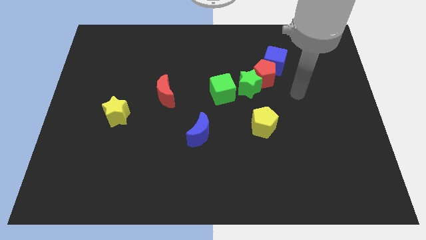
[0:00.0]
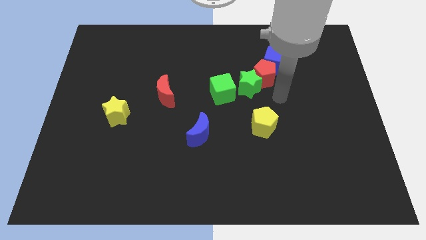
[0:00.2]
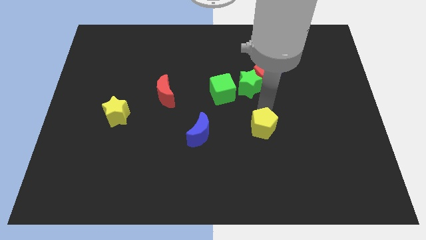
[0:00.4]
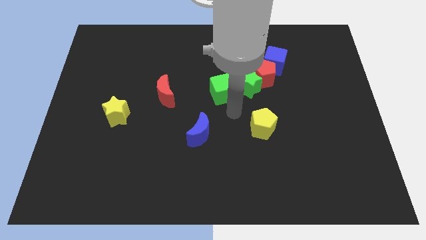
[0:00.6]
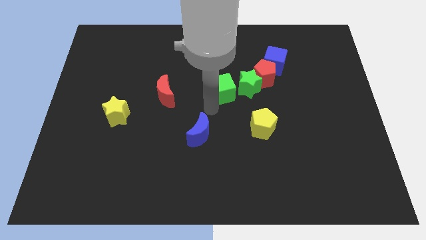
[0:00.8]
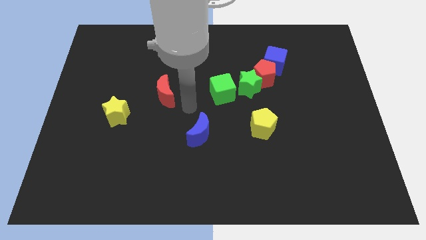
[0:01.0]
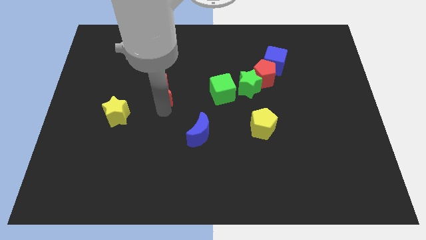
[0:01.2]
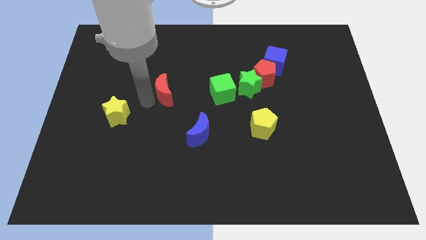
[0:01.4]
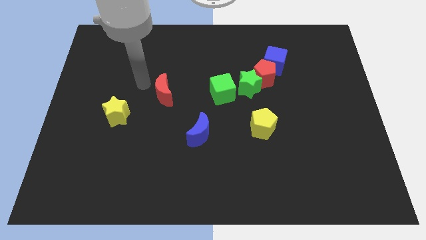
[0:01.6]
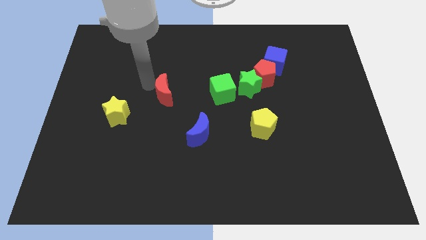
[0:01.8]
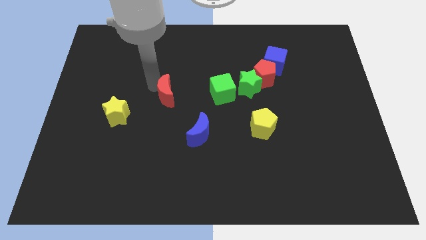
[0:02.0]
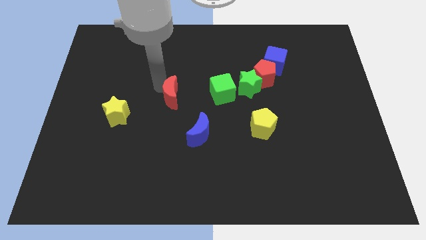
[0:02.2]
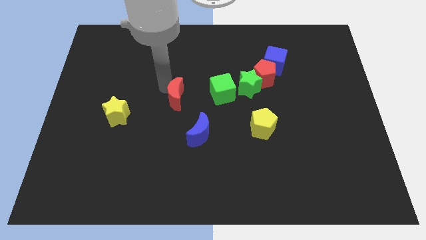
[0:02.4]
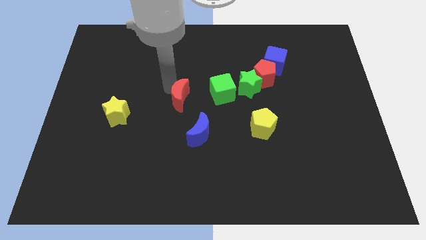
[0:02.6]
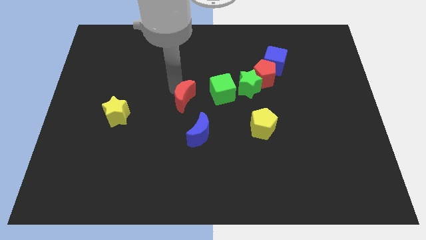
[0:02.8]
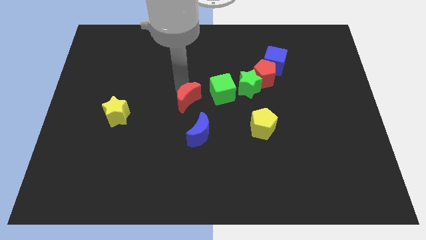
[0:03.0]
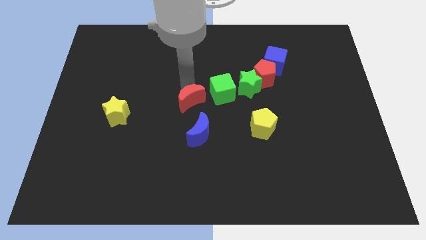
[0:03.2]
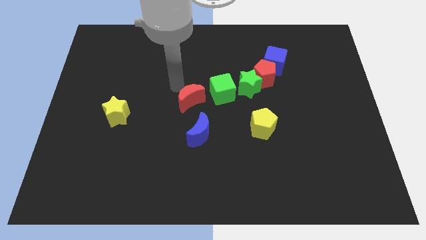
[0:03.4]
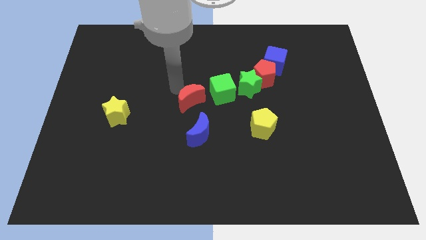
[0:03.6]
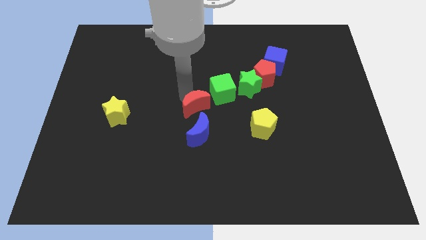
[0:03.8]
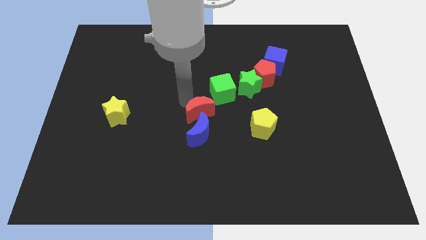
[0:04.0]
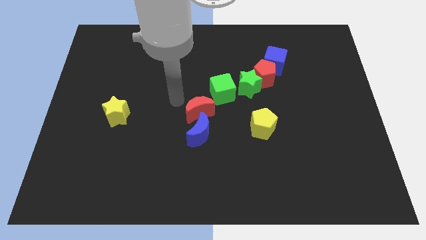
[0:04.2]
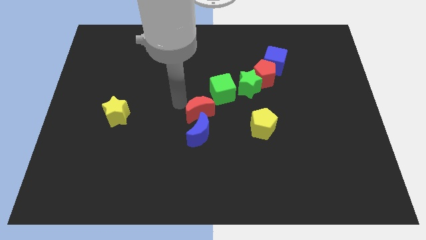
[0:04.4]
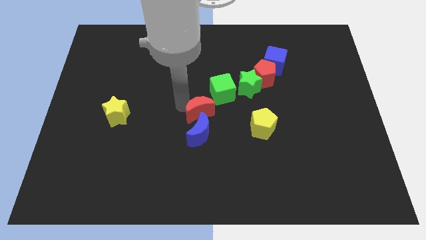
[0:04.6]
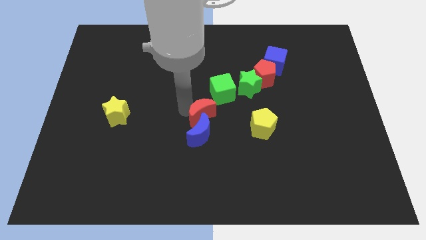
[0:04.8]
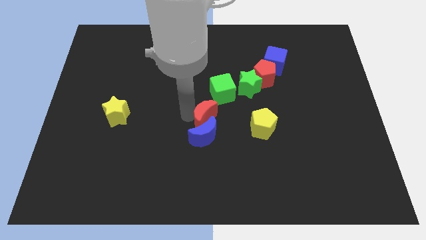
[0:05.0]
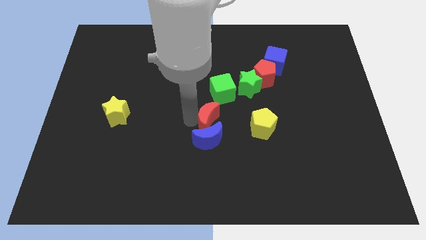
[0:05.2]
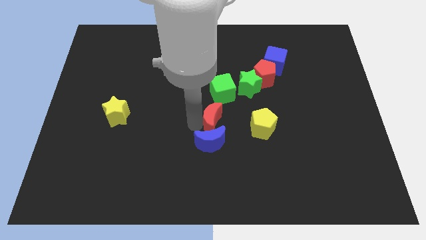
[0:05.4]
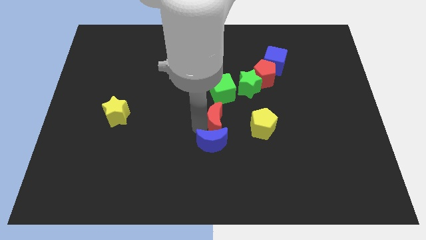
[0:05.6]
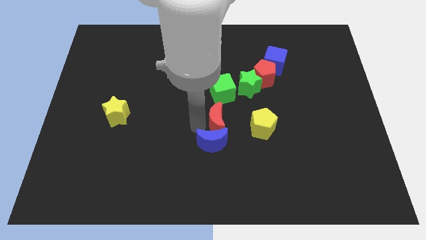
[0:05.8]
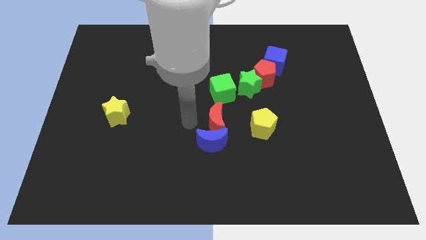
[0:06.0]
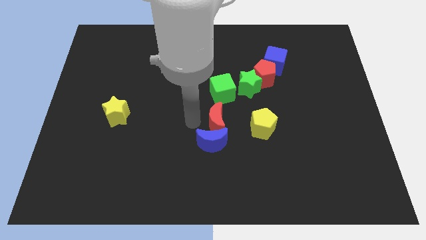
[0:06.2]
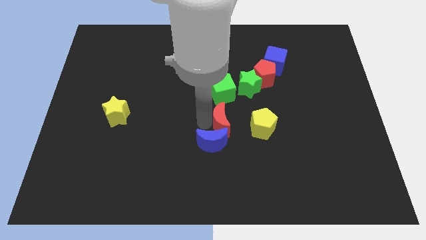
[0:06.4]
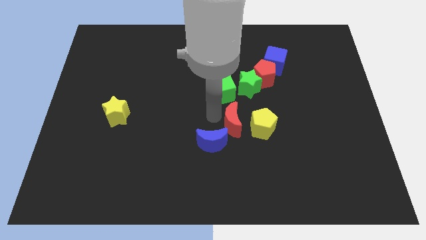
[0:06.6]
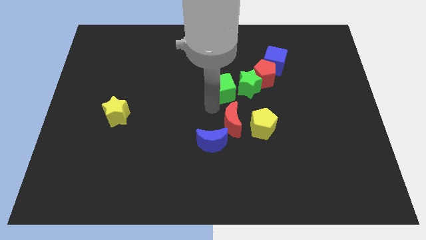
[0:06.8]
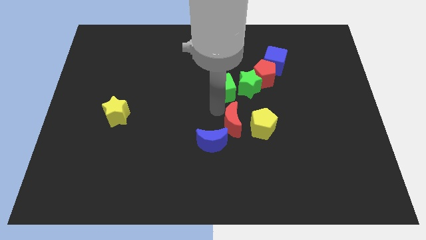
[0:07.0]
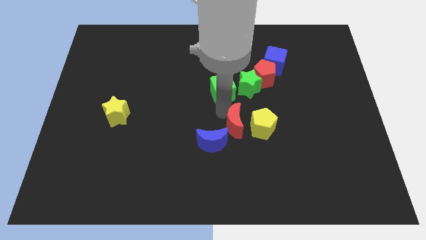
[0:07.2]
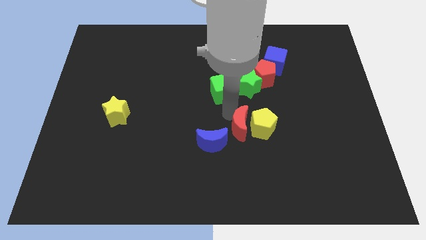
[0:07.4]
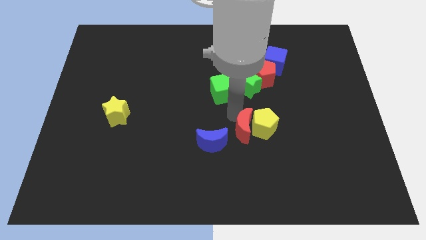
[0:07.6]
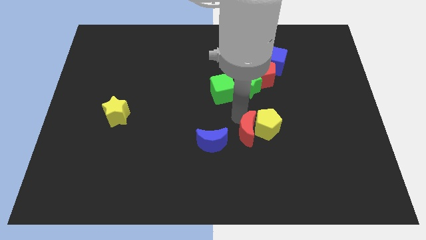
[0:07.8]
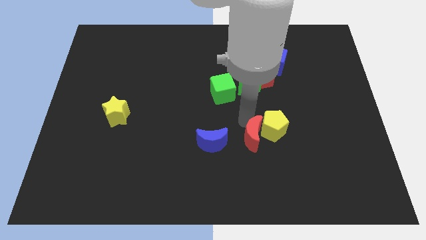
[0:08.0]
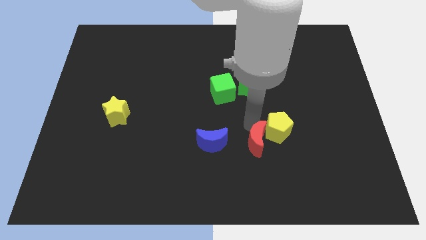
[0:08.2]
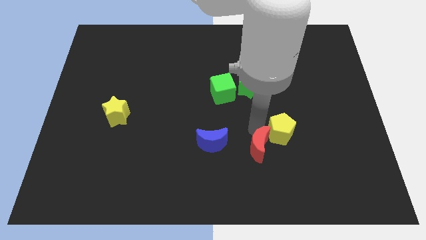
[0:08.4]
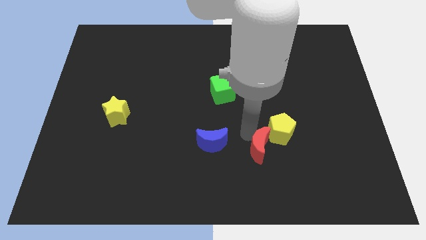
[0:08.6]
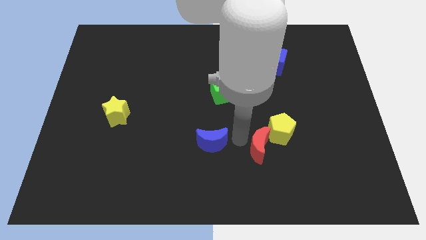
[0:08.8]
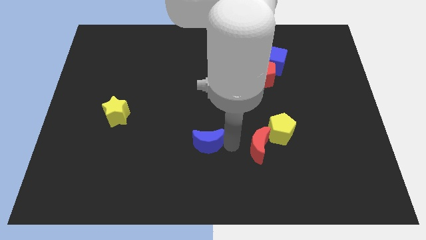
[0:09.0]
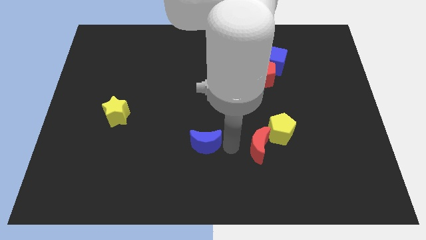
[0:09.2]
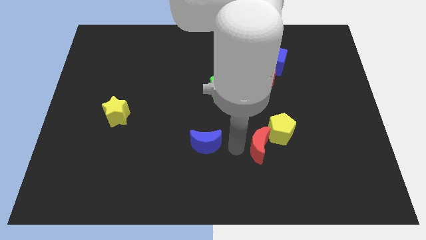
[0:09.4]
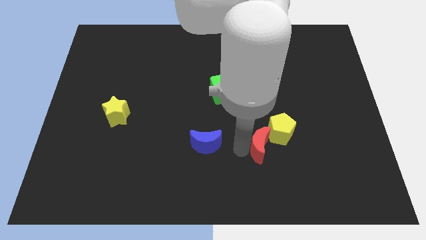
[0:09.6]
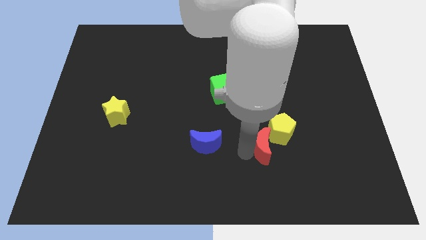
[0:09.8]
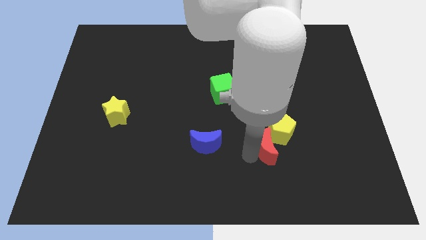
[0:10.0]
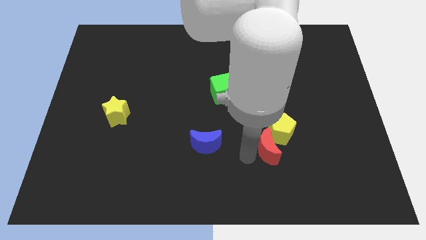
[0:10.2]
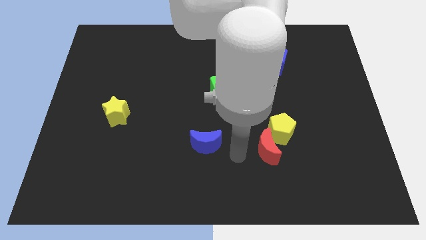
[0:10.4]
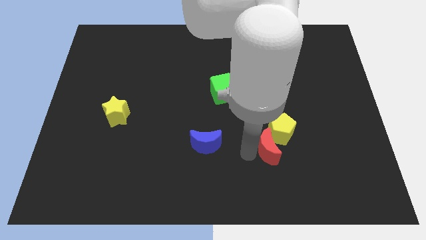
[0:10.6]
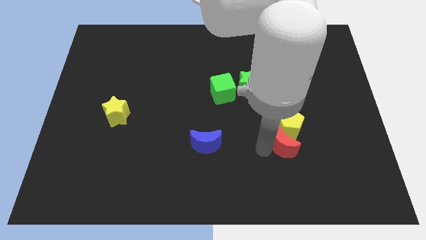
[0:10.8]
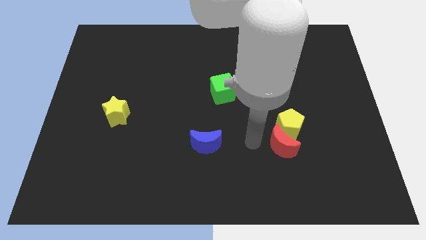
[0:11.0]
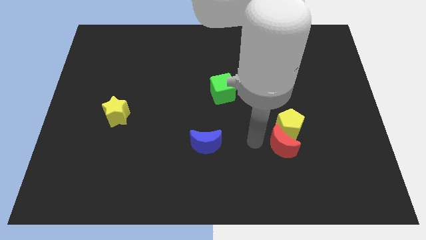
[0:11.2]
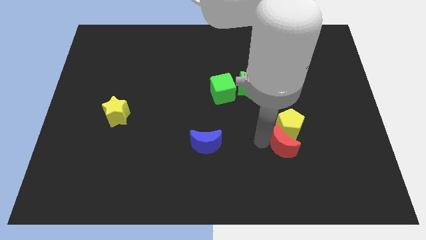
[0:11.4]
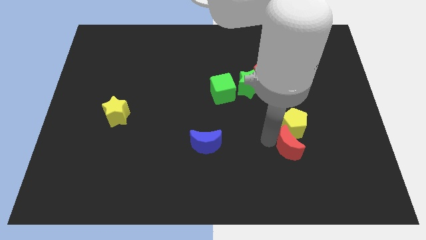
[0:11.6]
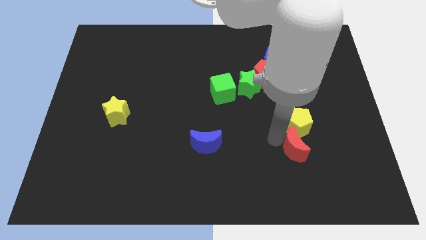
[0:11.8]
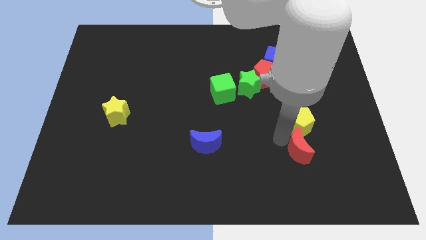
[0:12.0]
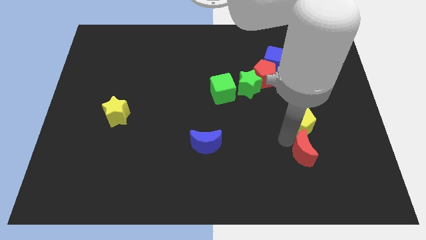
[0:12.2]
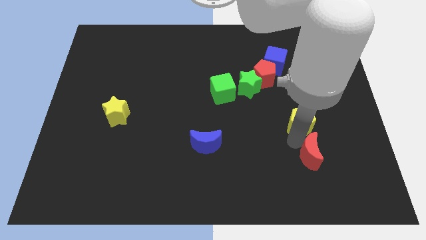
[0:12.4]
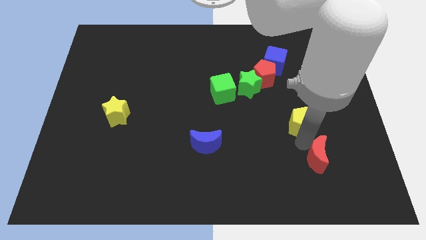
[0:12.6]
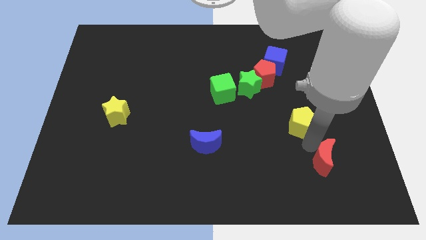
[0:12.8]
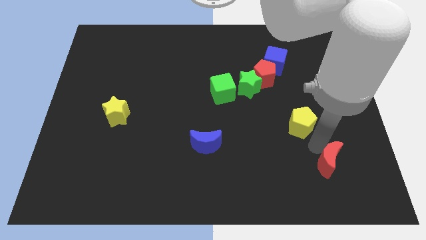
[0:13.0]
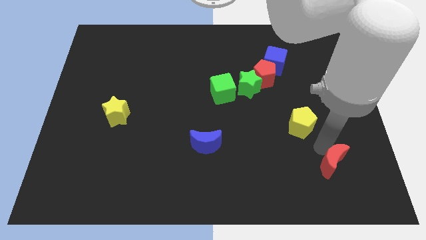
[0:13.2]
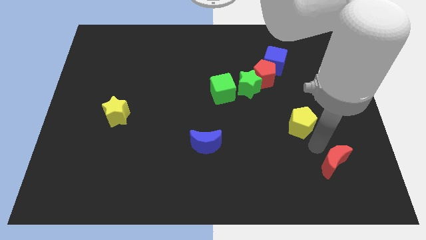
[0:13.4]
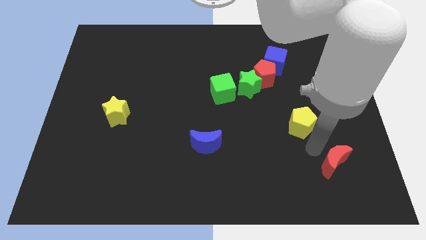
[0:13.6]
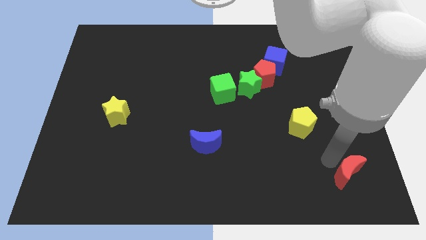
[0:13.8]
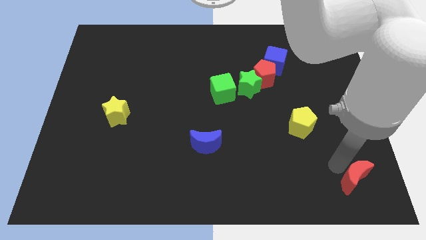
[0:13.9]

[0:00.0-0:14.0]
push the red moon to the bottom right

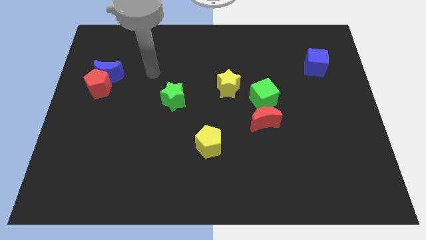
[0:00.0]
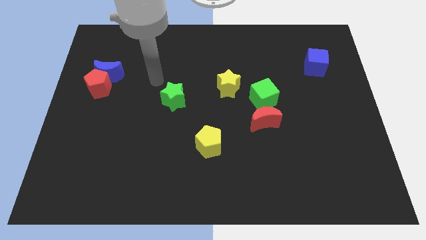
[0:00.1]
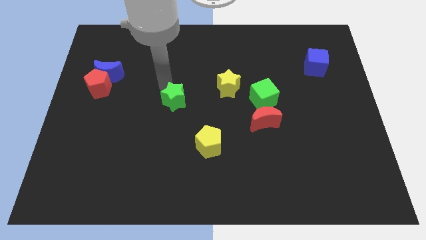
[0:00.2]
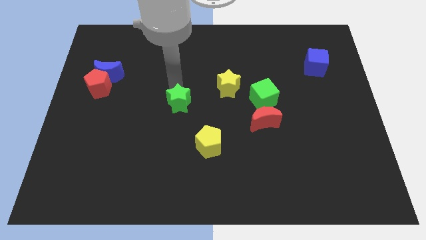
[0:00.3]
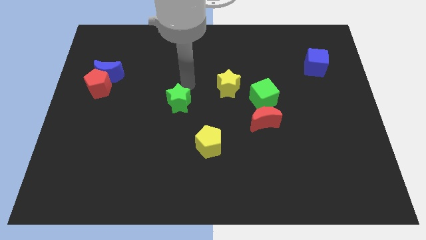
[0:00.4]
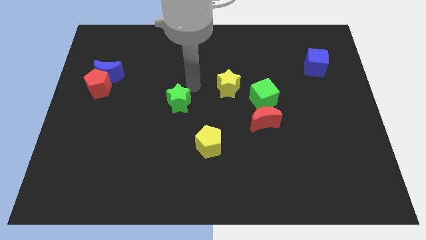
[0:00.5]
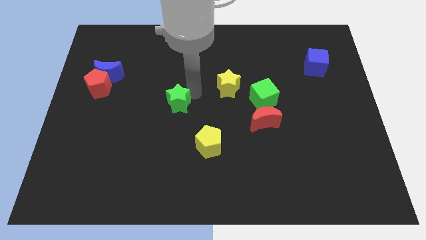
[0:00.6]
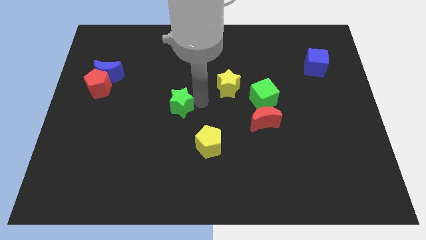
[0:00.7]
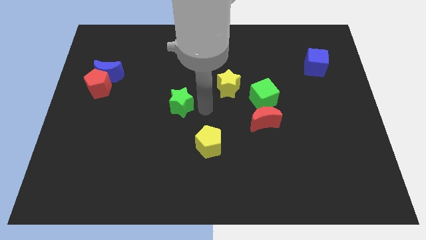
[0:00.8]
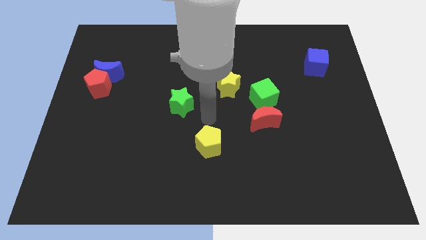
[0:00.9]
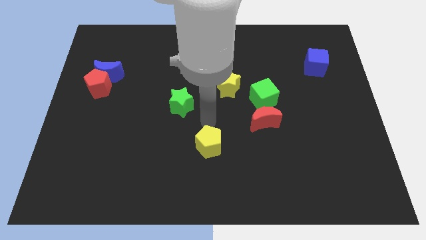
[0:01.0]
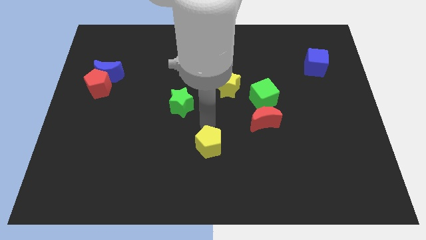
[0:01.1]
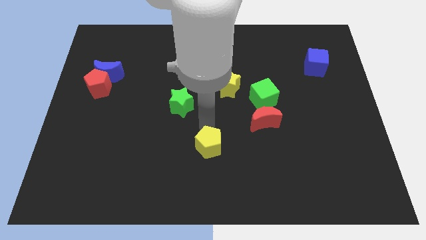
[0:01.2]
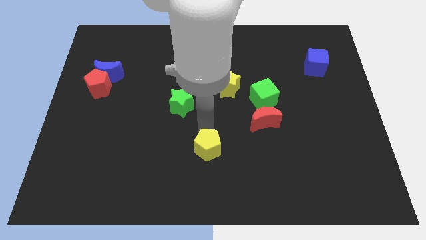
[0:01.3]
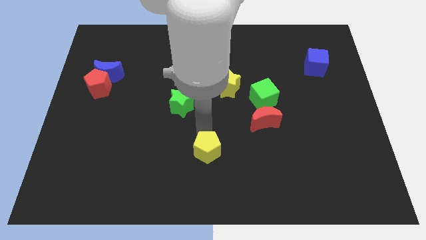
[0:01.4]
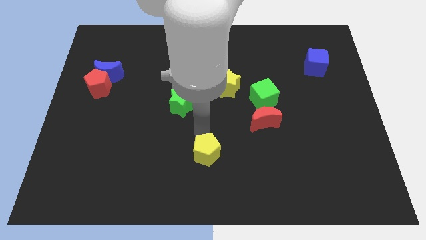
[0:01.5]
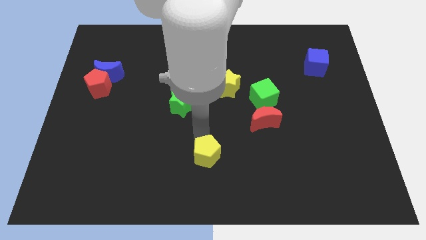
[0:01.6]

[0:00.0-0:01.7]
put the yellow pentagon to the bottom side
